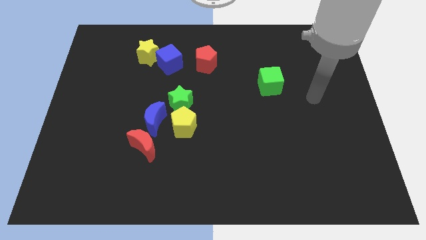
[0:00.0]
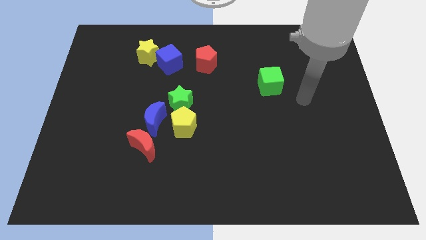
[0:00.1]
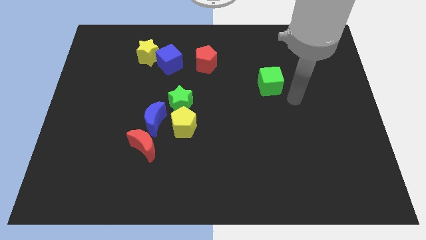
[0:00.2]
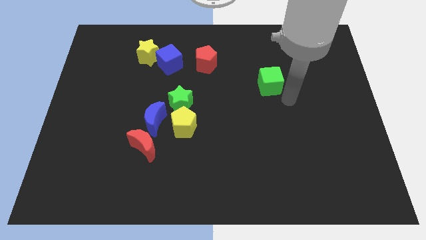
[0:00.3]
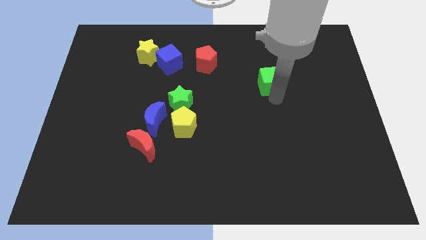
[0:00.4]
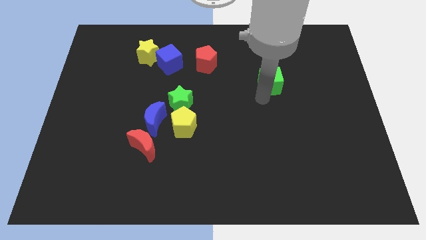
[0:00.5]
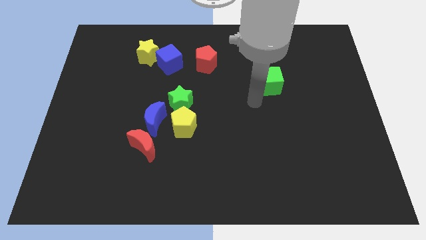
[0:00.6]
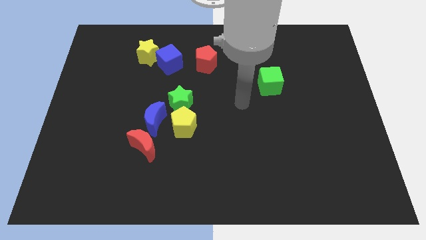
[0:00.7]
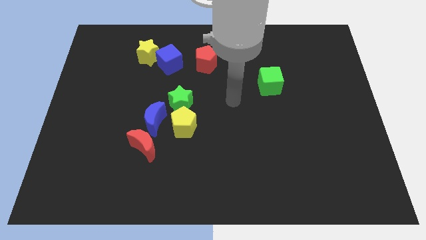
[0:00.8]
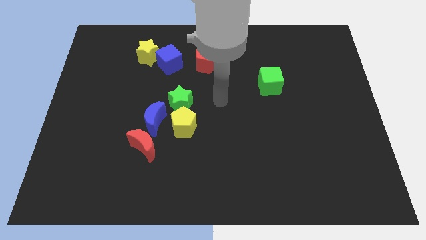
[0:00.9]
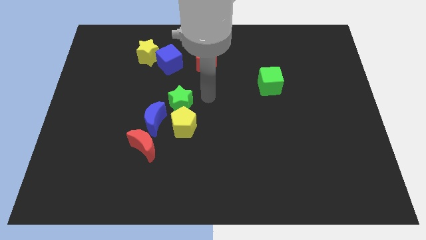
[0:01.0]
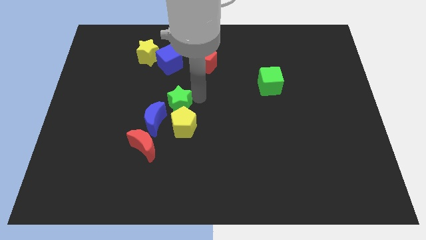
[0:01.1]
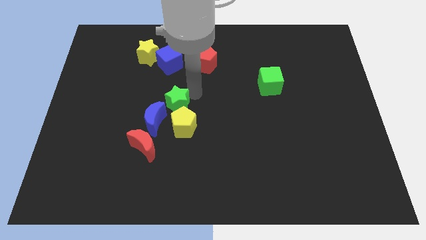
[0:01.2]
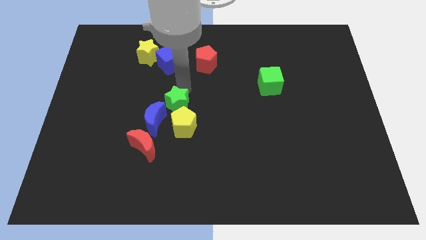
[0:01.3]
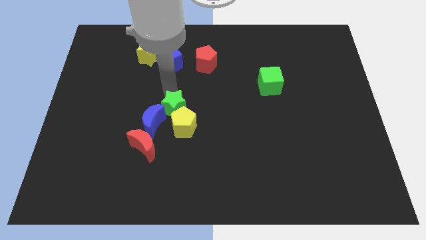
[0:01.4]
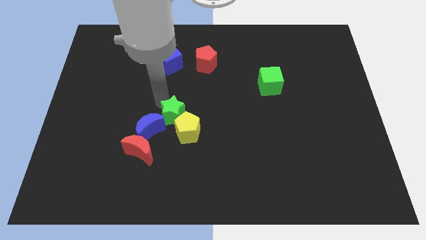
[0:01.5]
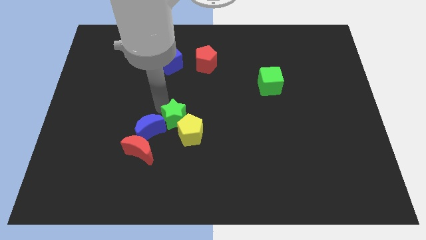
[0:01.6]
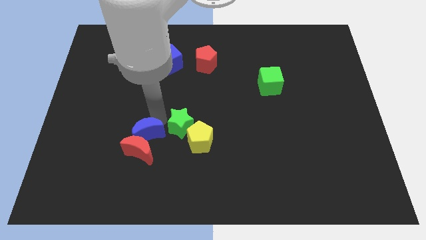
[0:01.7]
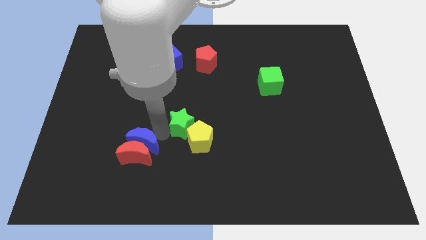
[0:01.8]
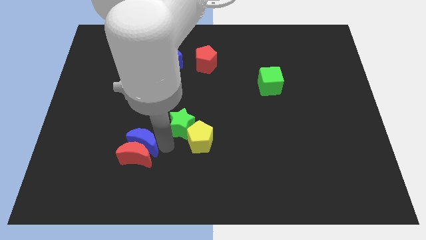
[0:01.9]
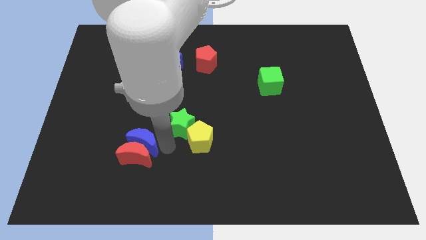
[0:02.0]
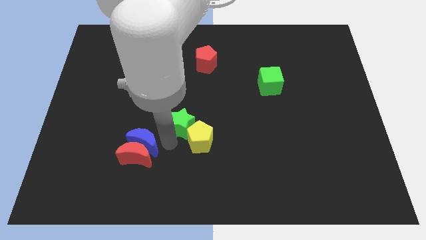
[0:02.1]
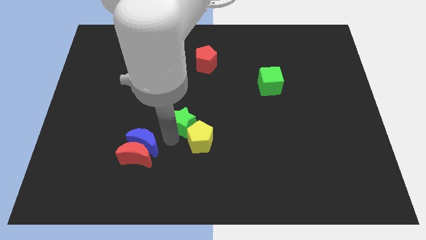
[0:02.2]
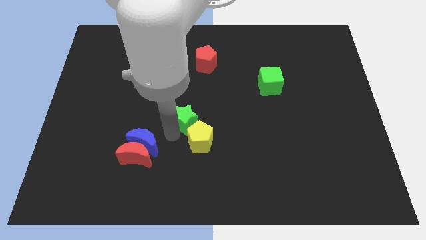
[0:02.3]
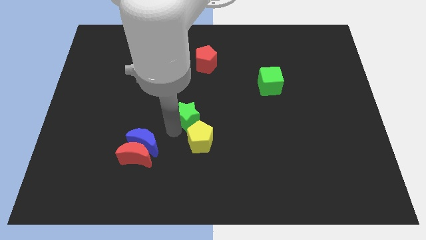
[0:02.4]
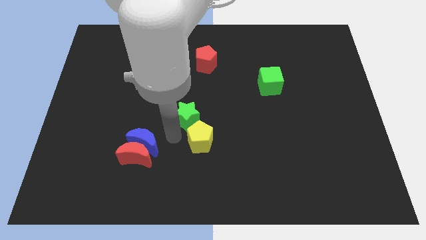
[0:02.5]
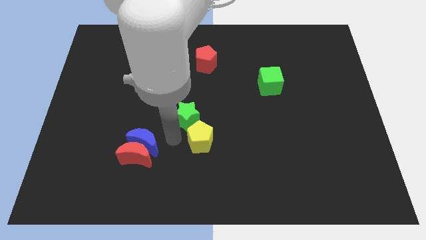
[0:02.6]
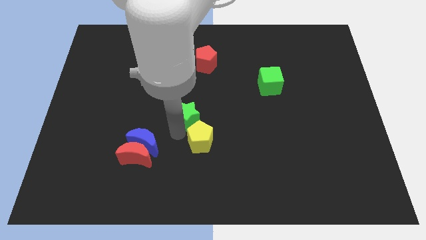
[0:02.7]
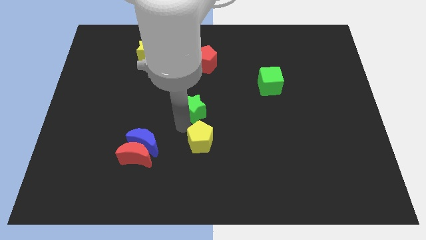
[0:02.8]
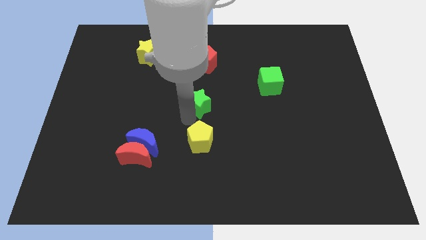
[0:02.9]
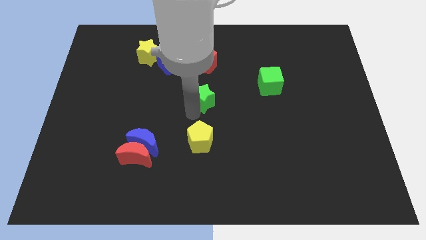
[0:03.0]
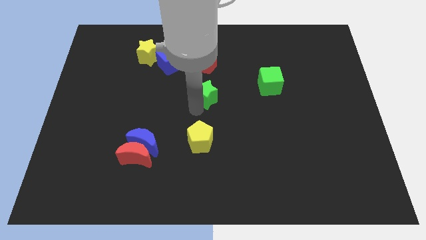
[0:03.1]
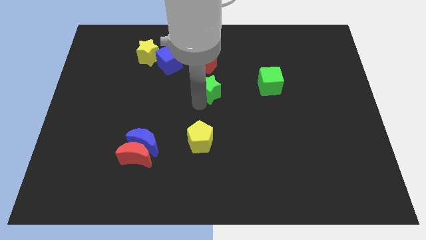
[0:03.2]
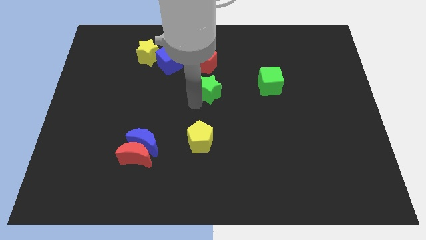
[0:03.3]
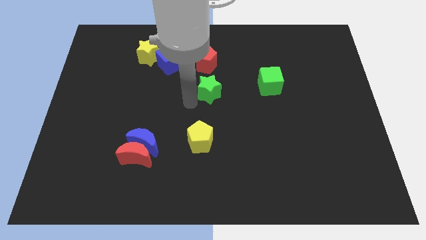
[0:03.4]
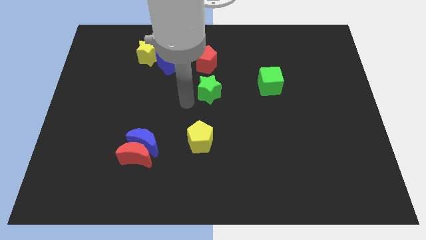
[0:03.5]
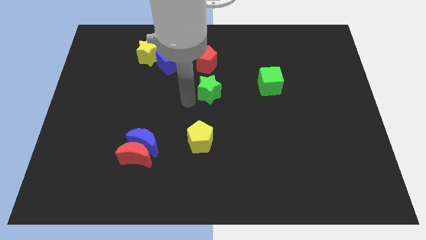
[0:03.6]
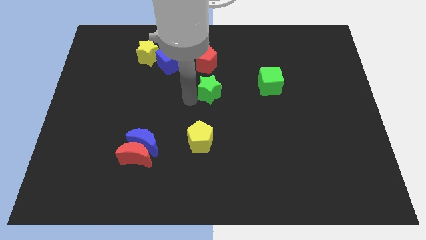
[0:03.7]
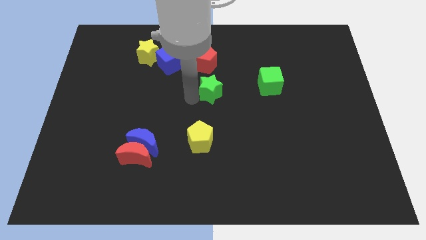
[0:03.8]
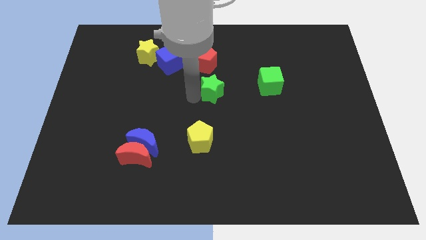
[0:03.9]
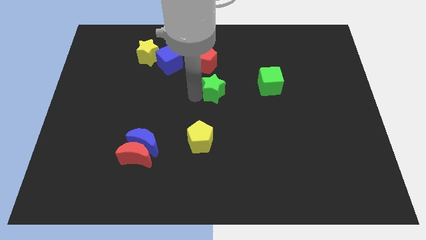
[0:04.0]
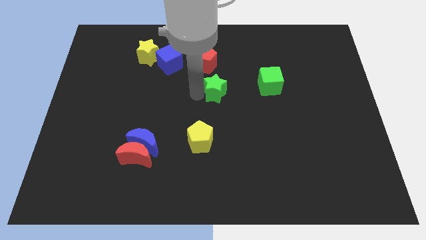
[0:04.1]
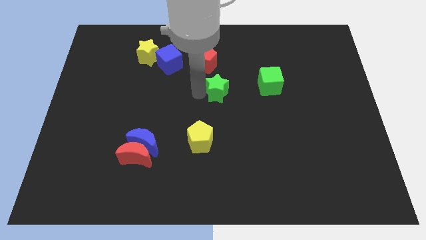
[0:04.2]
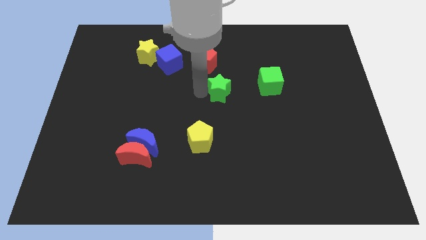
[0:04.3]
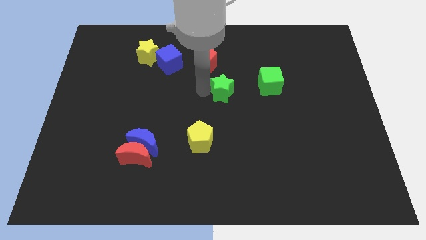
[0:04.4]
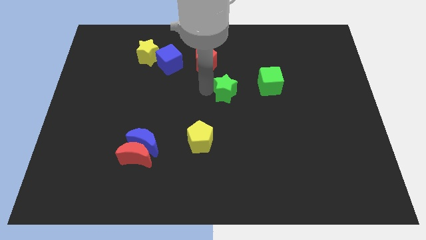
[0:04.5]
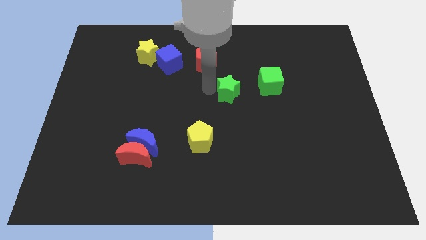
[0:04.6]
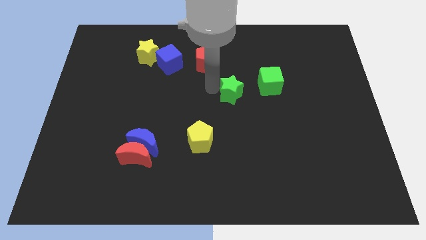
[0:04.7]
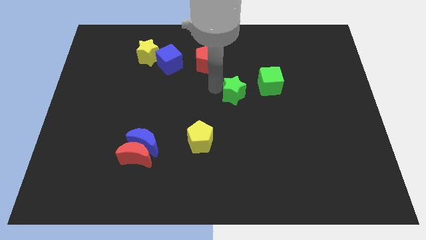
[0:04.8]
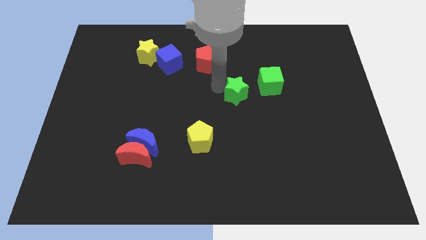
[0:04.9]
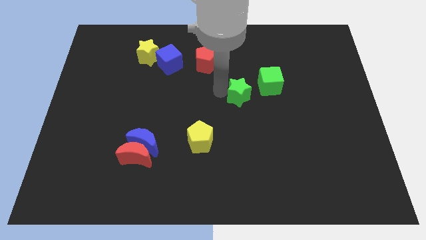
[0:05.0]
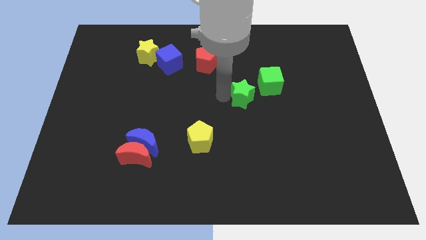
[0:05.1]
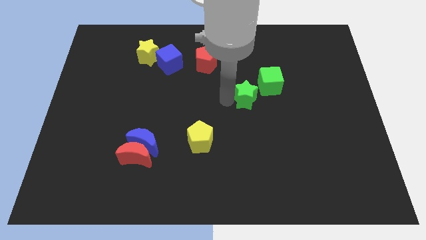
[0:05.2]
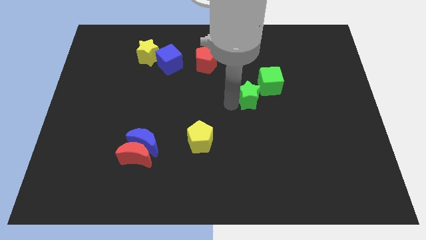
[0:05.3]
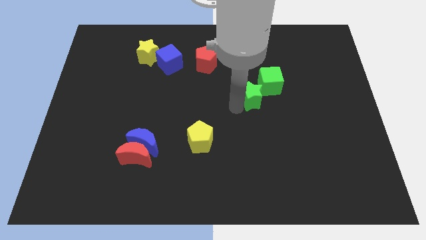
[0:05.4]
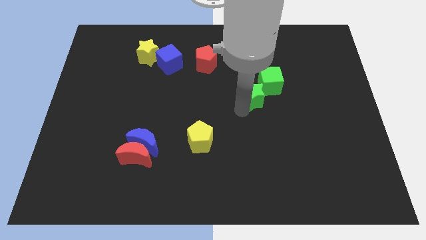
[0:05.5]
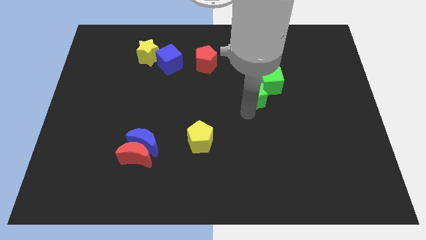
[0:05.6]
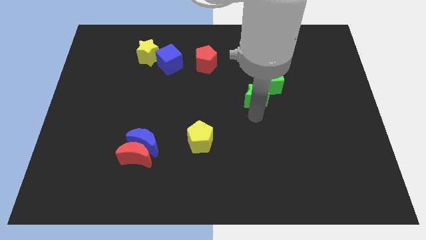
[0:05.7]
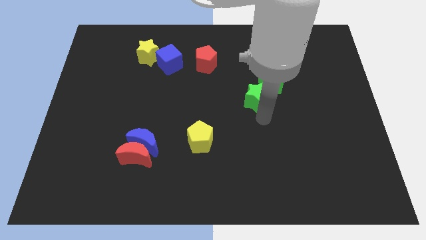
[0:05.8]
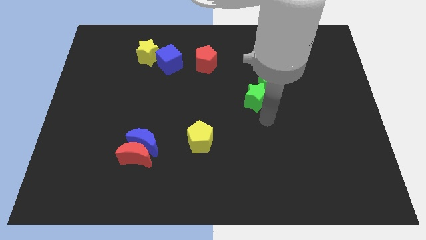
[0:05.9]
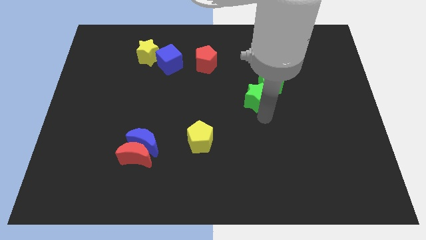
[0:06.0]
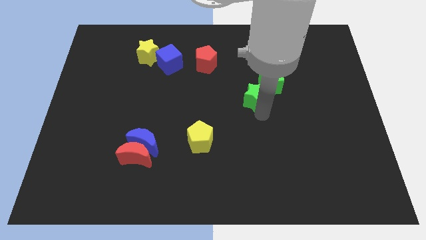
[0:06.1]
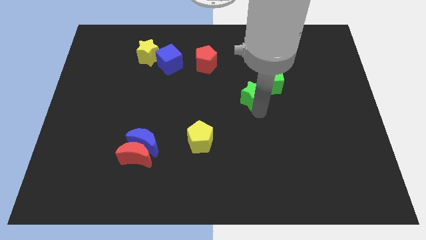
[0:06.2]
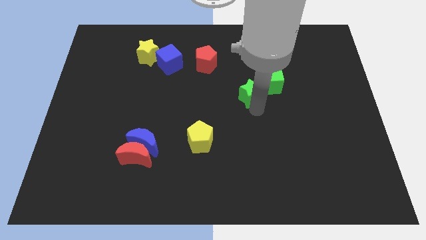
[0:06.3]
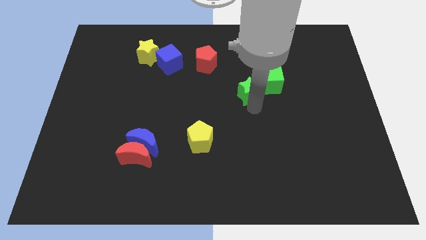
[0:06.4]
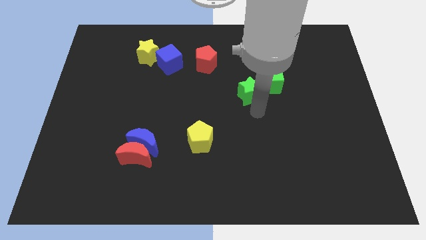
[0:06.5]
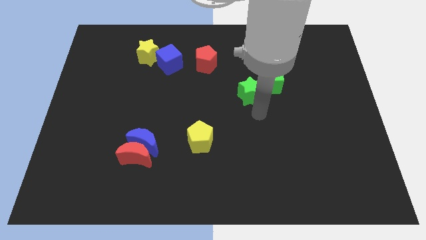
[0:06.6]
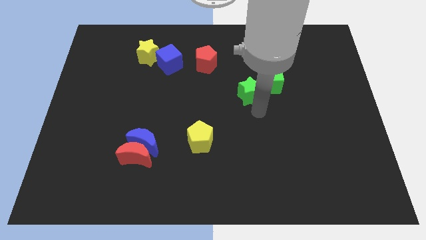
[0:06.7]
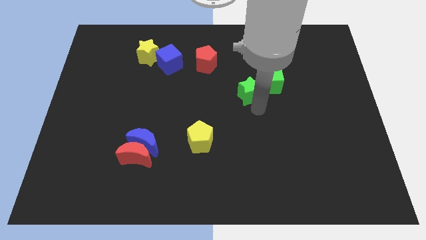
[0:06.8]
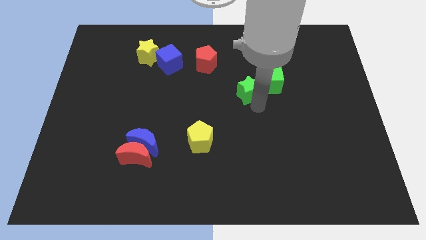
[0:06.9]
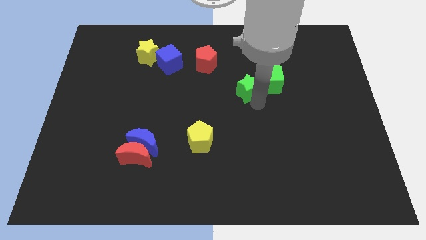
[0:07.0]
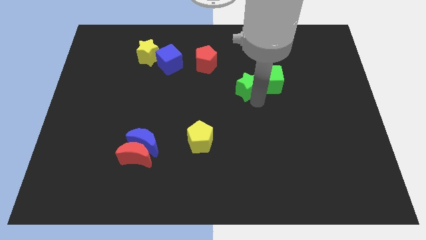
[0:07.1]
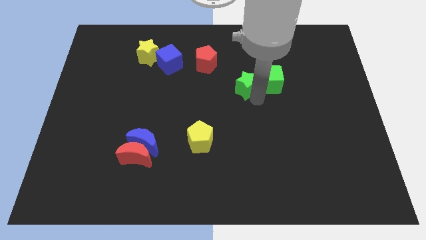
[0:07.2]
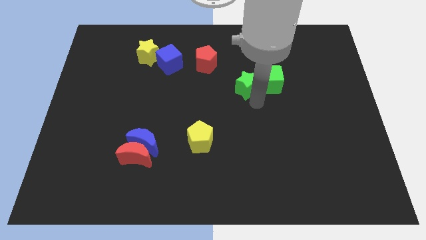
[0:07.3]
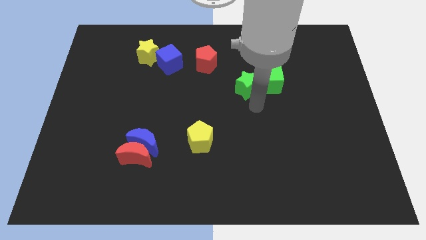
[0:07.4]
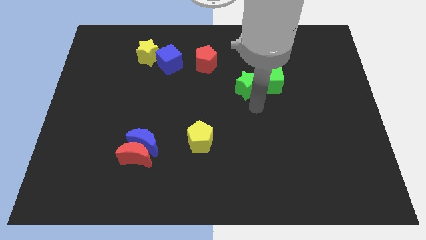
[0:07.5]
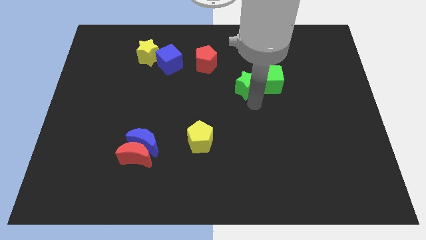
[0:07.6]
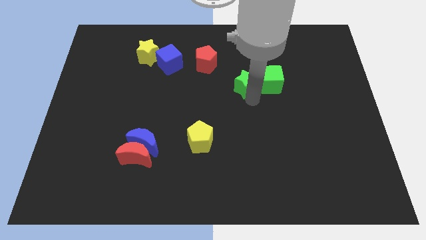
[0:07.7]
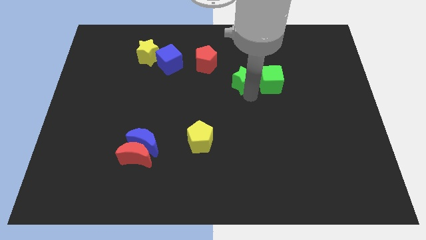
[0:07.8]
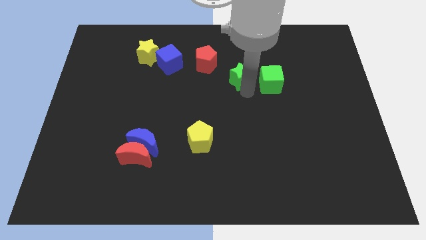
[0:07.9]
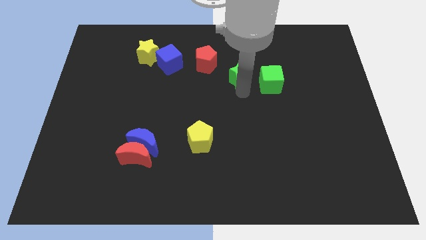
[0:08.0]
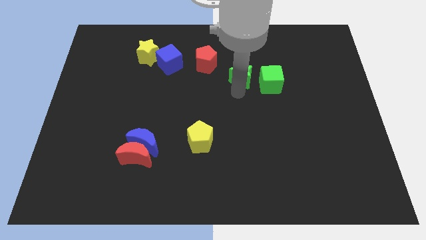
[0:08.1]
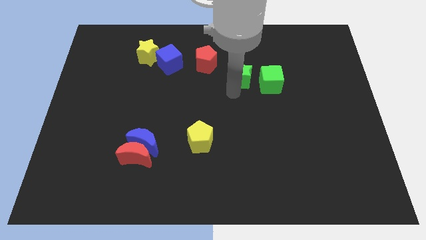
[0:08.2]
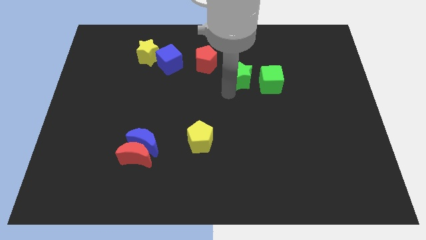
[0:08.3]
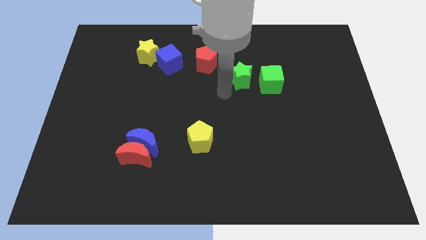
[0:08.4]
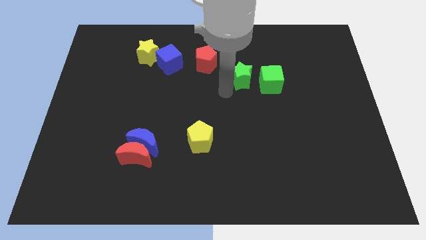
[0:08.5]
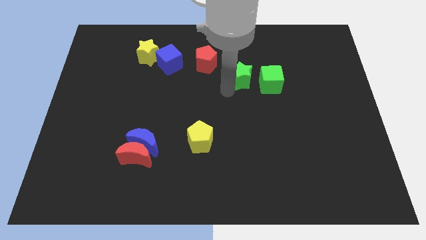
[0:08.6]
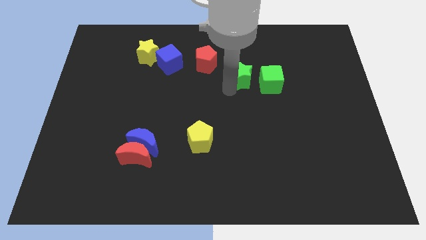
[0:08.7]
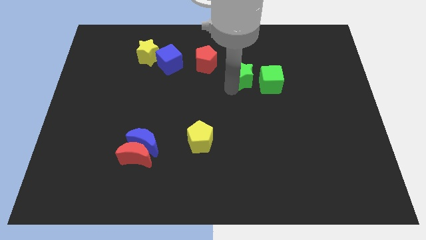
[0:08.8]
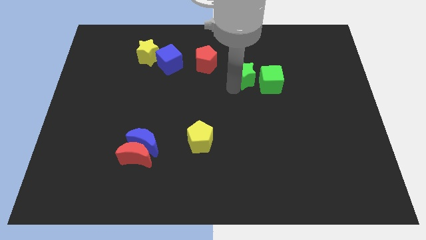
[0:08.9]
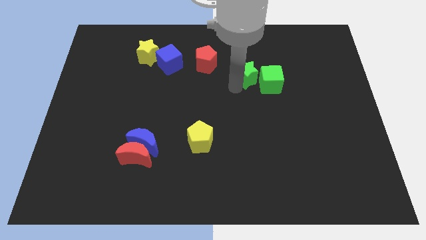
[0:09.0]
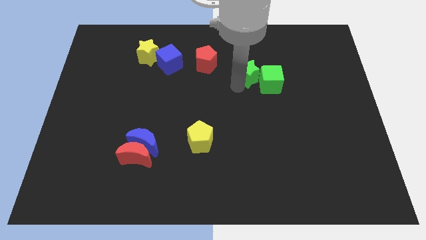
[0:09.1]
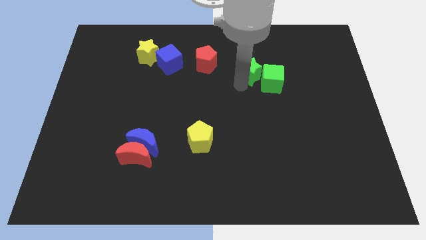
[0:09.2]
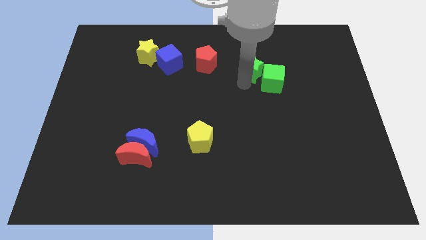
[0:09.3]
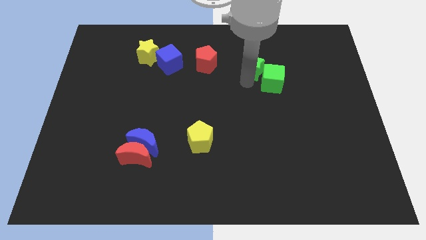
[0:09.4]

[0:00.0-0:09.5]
put the green star to the top side of the green cube
